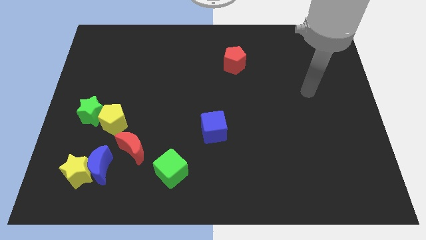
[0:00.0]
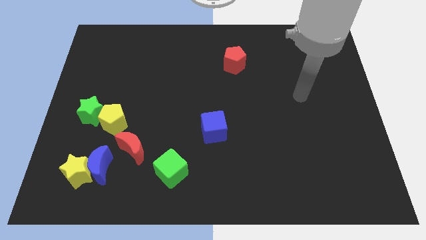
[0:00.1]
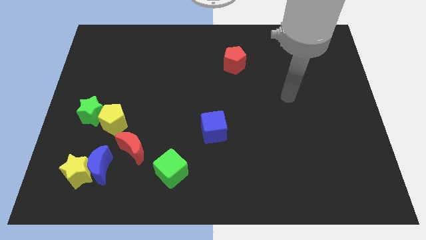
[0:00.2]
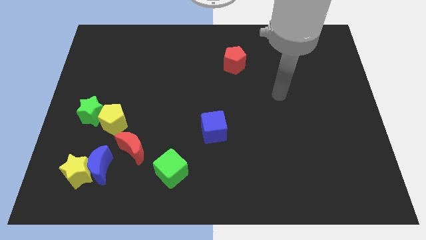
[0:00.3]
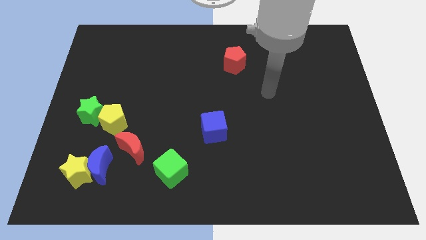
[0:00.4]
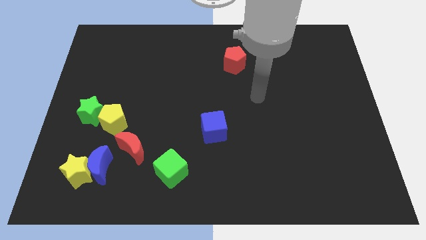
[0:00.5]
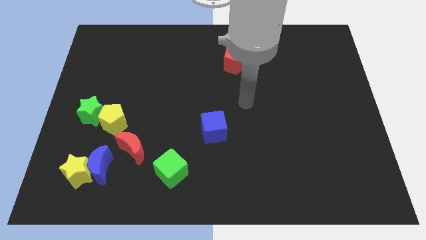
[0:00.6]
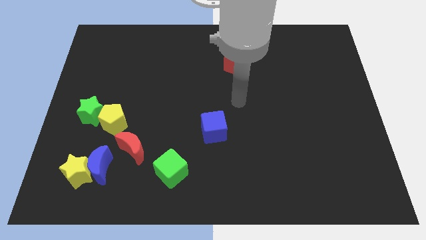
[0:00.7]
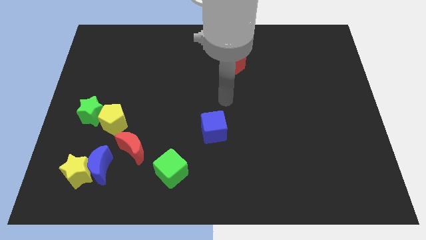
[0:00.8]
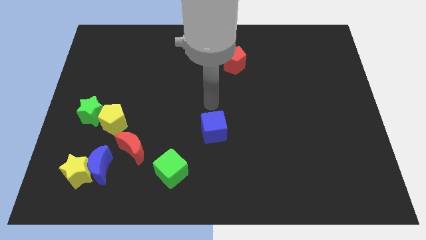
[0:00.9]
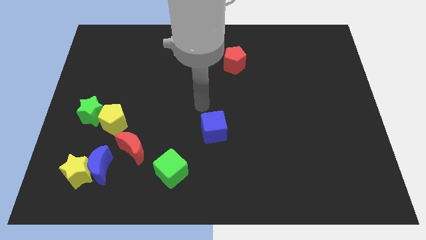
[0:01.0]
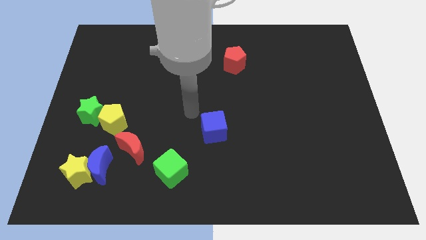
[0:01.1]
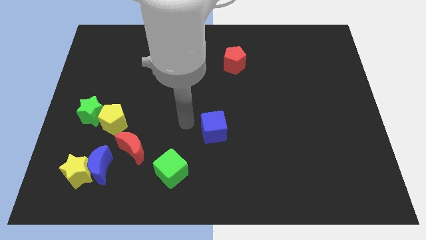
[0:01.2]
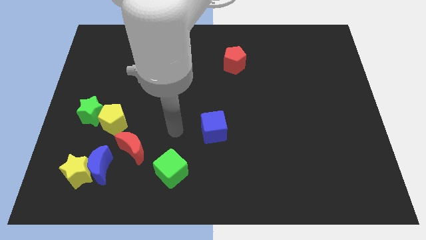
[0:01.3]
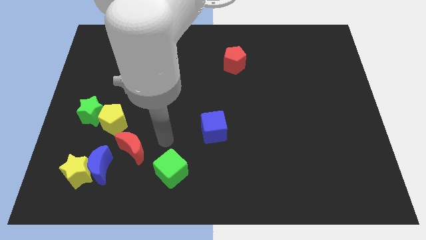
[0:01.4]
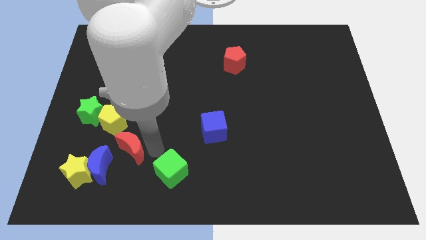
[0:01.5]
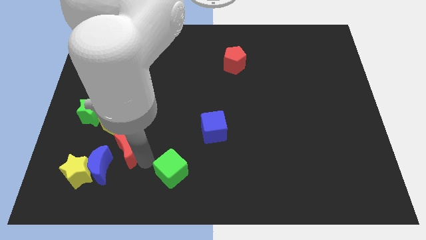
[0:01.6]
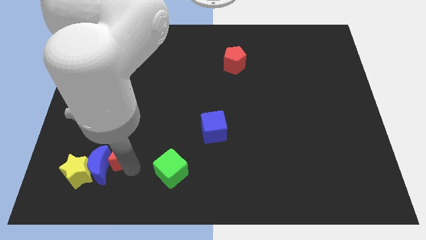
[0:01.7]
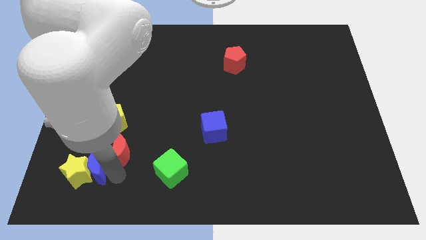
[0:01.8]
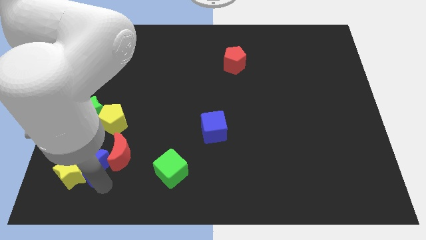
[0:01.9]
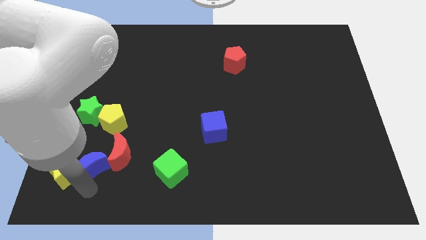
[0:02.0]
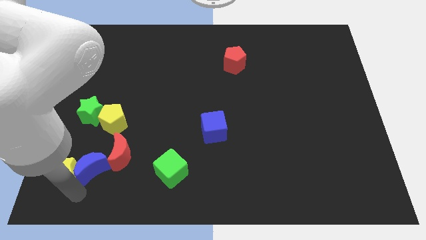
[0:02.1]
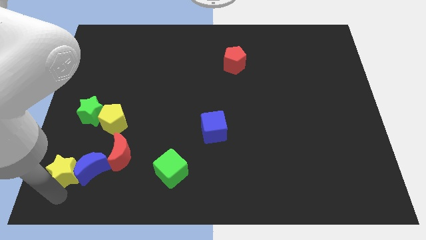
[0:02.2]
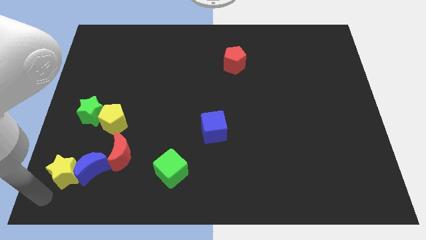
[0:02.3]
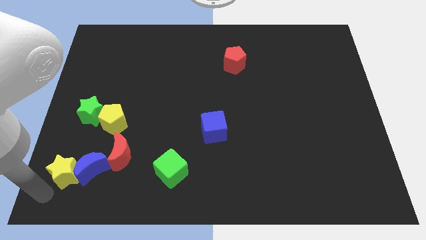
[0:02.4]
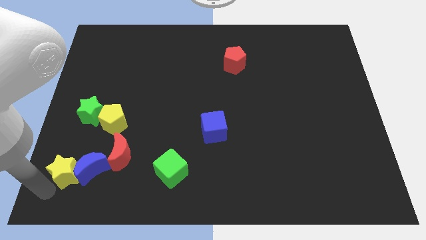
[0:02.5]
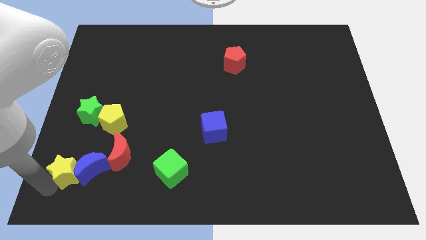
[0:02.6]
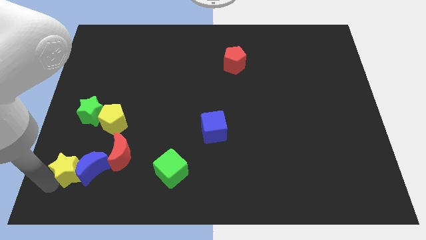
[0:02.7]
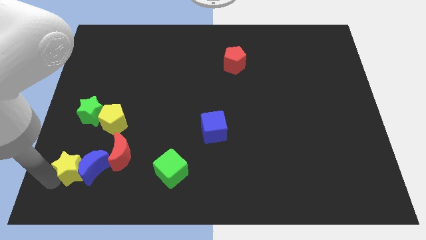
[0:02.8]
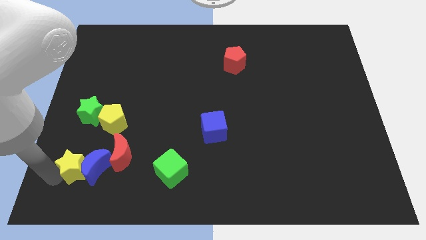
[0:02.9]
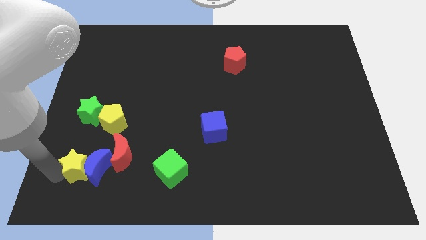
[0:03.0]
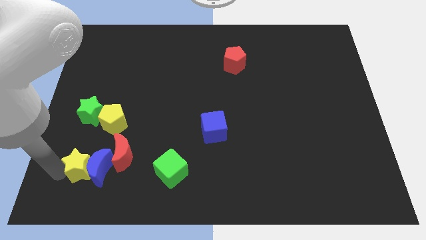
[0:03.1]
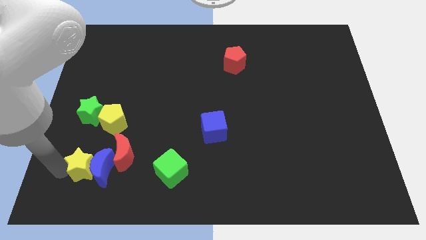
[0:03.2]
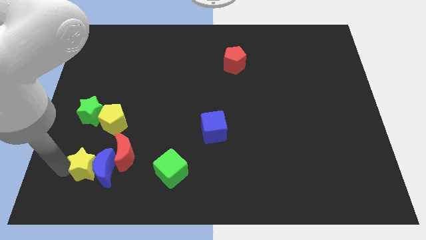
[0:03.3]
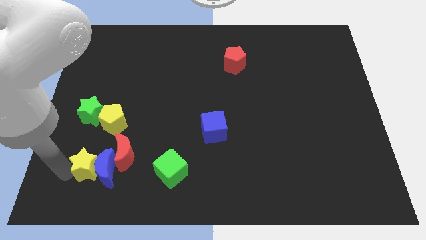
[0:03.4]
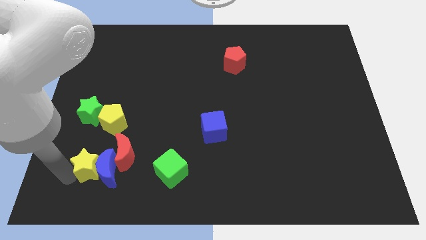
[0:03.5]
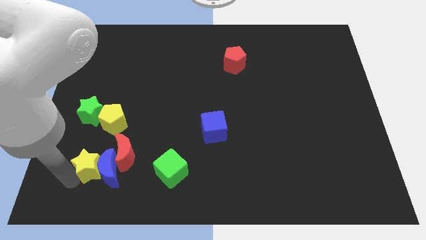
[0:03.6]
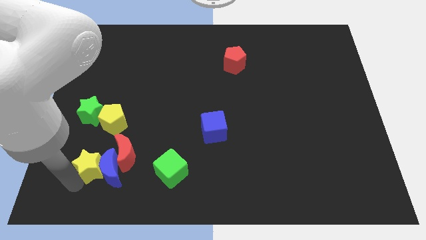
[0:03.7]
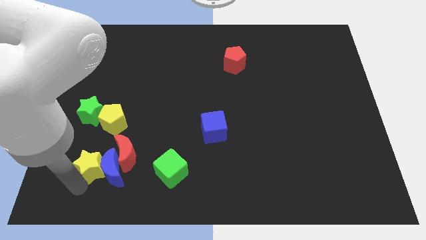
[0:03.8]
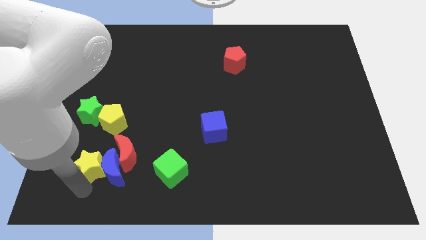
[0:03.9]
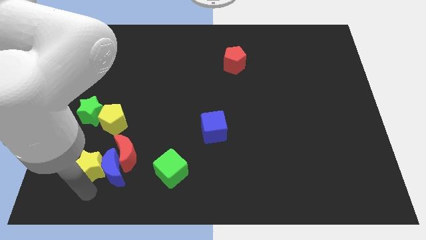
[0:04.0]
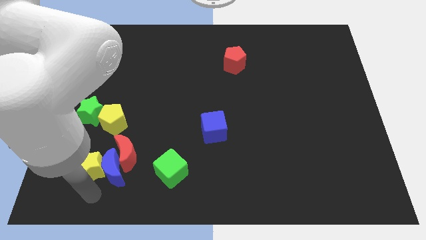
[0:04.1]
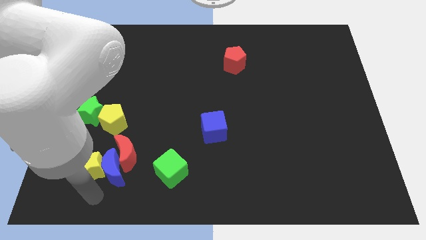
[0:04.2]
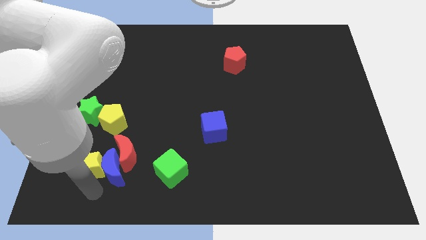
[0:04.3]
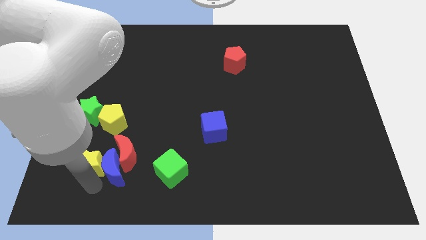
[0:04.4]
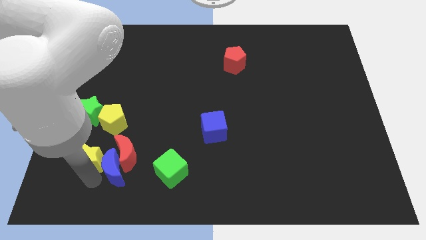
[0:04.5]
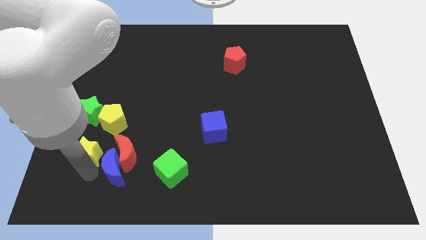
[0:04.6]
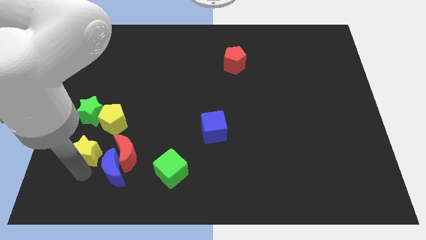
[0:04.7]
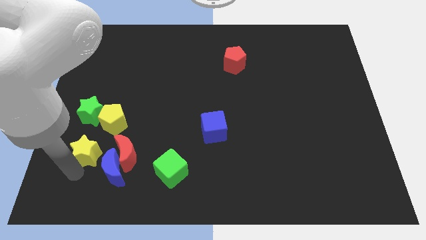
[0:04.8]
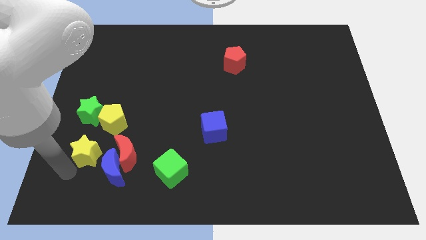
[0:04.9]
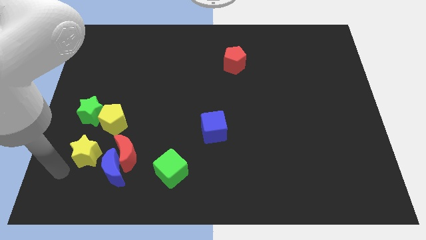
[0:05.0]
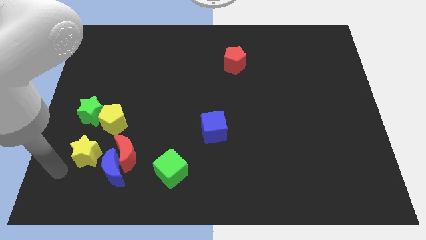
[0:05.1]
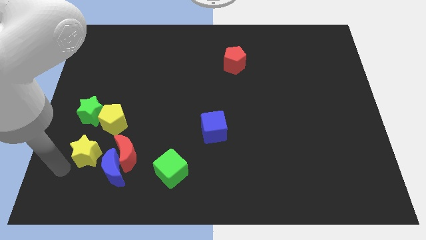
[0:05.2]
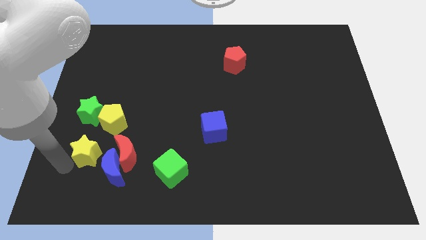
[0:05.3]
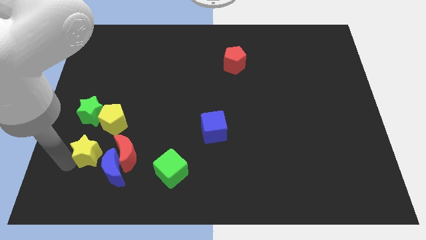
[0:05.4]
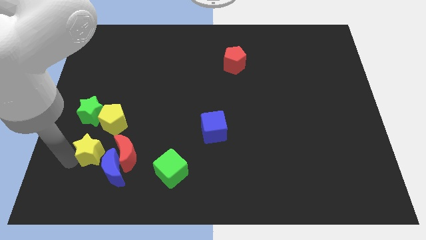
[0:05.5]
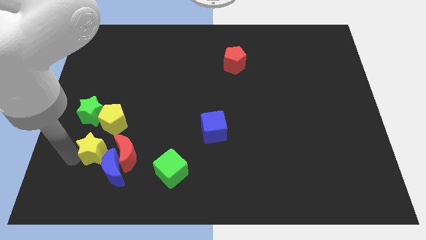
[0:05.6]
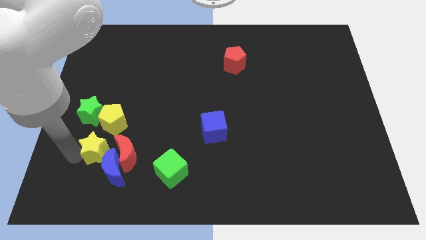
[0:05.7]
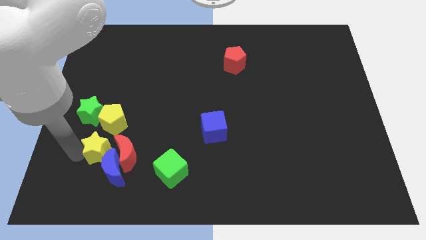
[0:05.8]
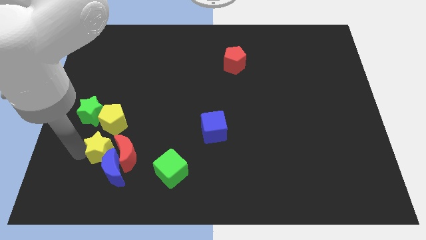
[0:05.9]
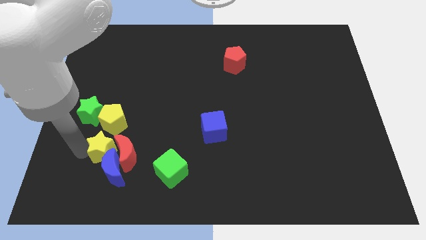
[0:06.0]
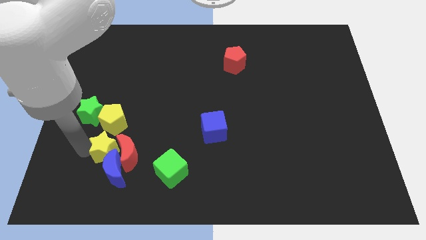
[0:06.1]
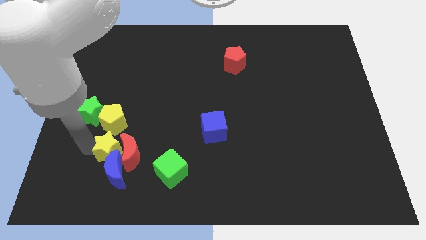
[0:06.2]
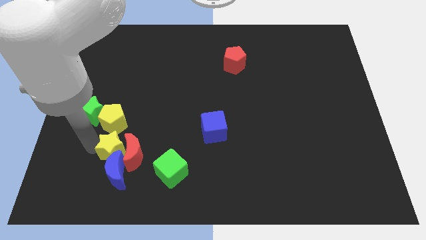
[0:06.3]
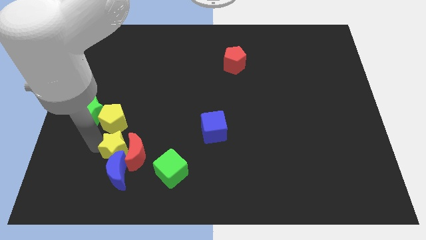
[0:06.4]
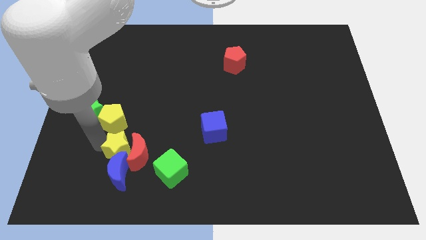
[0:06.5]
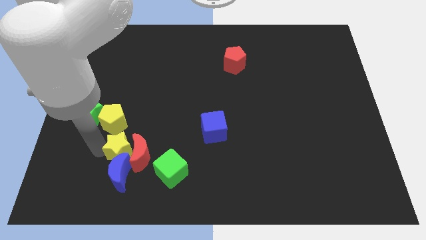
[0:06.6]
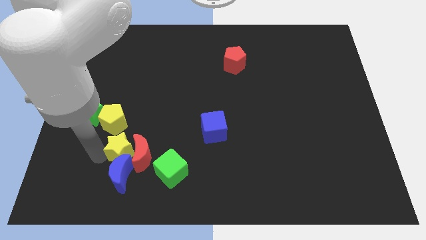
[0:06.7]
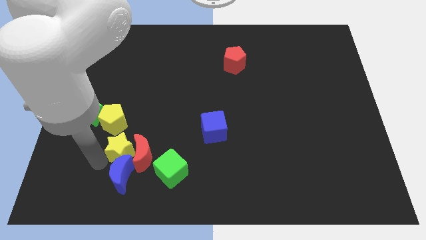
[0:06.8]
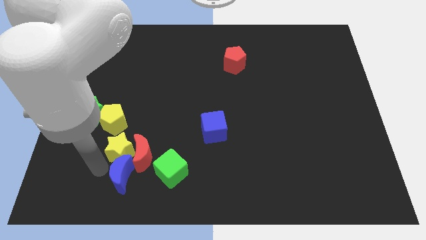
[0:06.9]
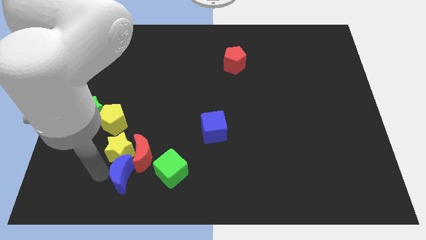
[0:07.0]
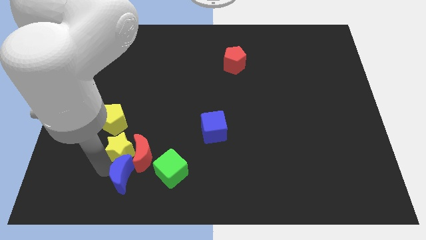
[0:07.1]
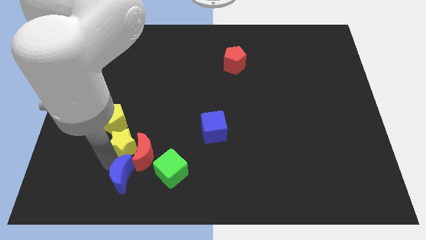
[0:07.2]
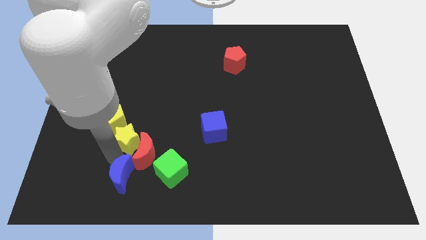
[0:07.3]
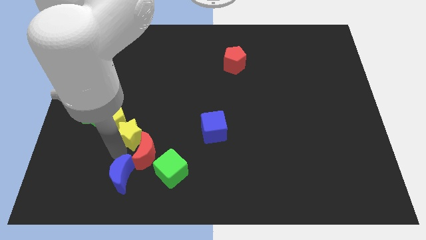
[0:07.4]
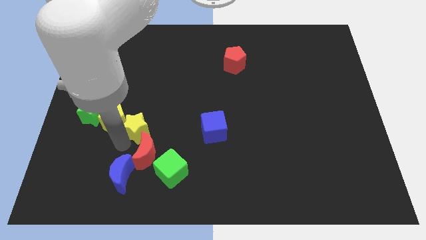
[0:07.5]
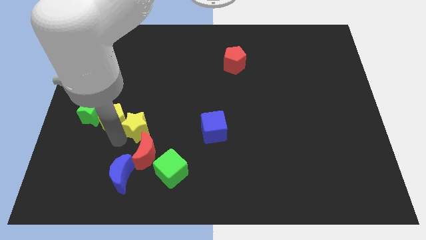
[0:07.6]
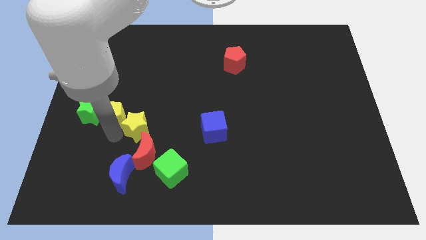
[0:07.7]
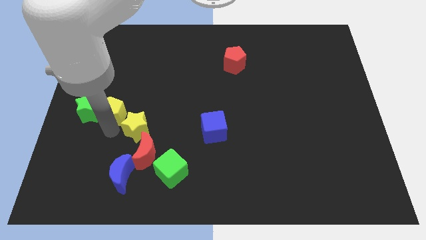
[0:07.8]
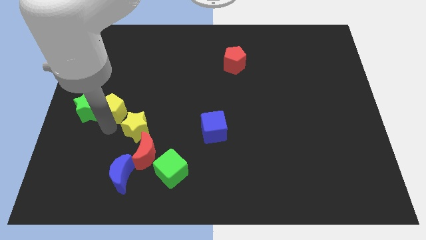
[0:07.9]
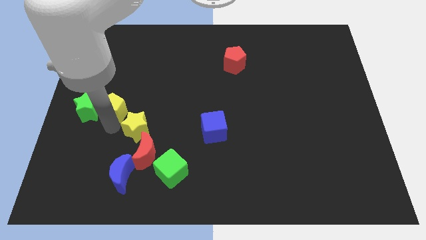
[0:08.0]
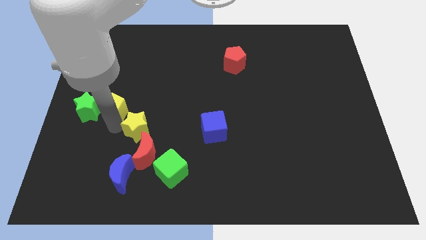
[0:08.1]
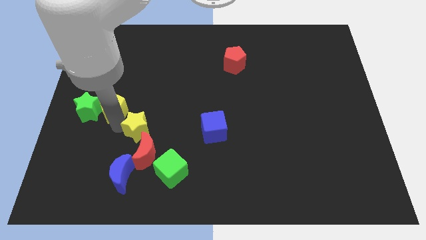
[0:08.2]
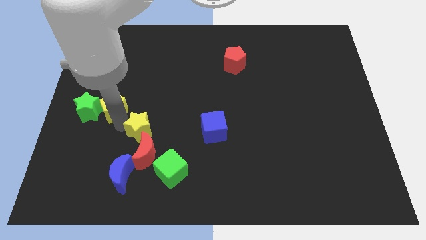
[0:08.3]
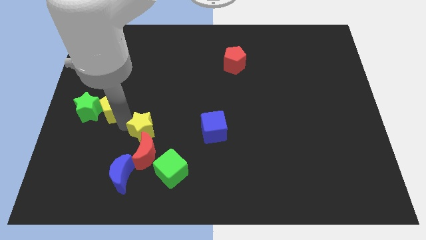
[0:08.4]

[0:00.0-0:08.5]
put the yellow star to the left of the blue cube
